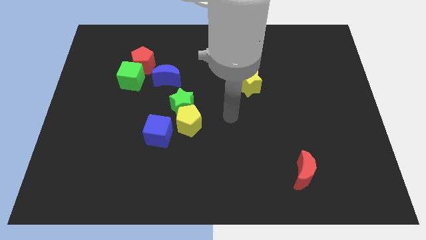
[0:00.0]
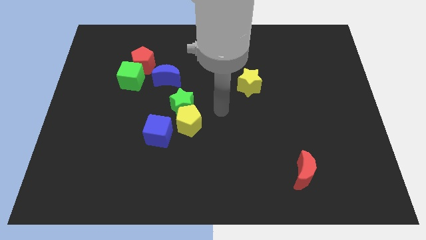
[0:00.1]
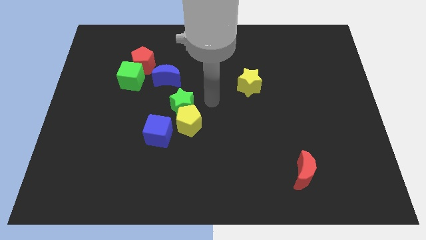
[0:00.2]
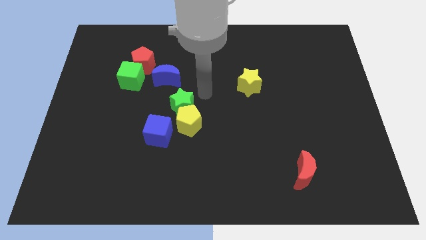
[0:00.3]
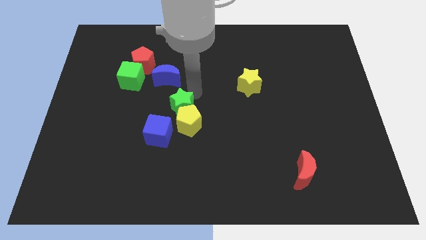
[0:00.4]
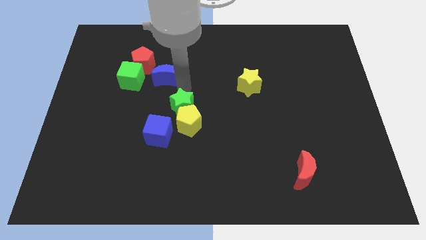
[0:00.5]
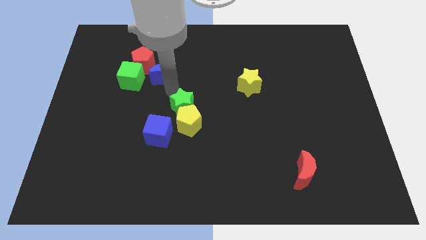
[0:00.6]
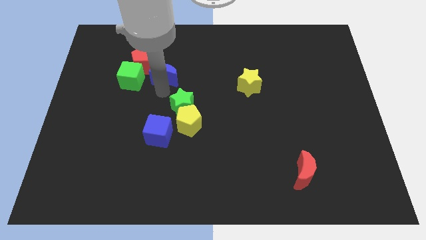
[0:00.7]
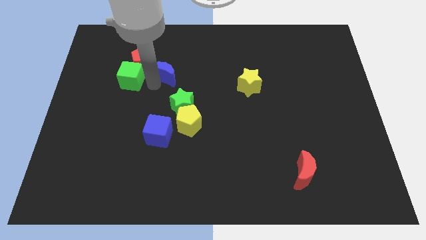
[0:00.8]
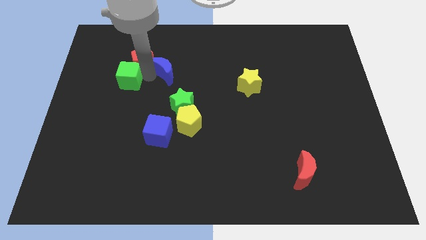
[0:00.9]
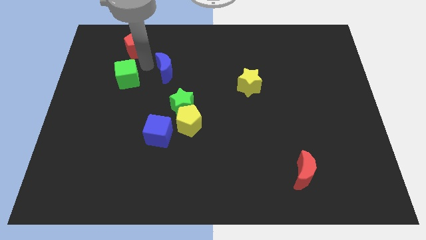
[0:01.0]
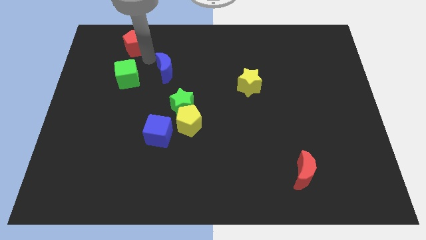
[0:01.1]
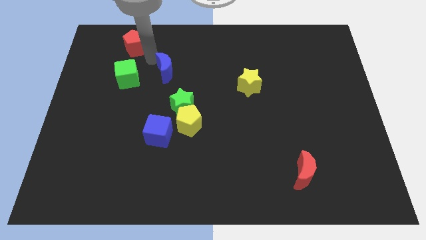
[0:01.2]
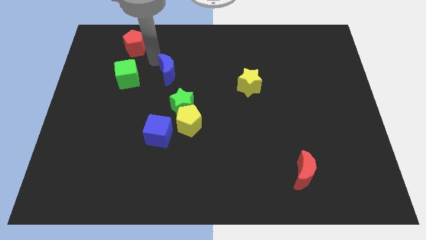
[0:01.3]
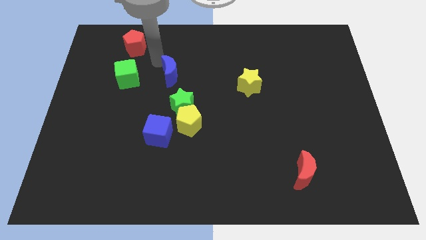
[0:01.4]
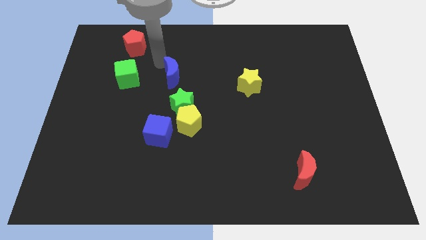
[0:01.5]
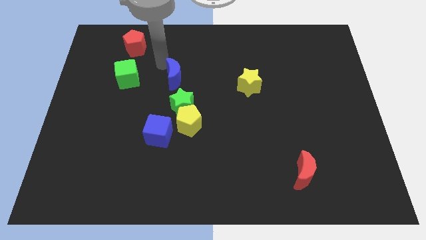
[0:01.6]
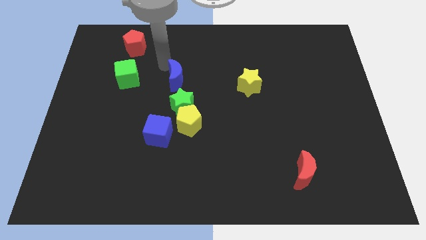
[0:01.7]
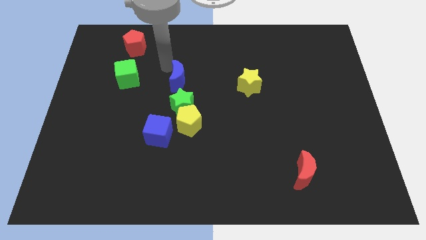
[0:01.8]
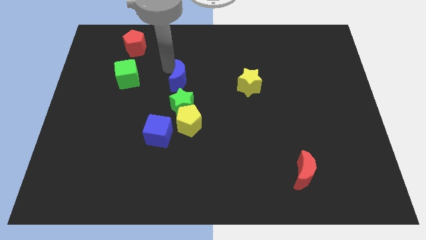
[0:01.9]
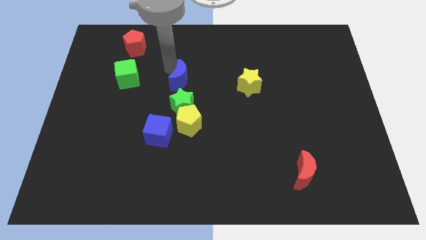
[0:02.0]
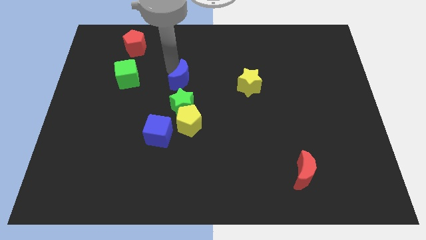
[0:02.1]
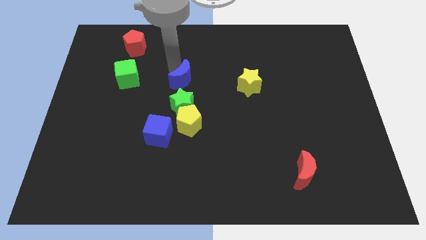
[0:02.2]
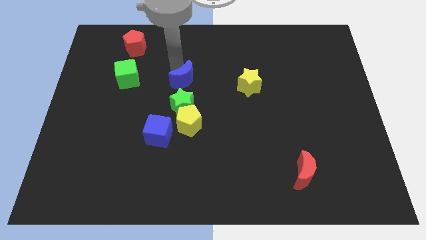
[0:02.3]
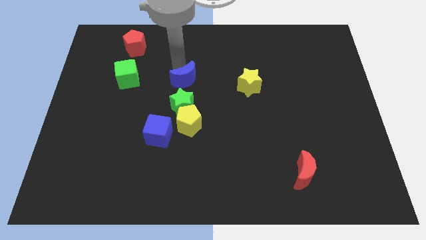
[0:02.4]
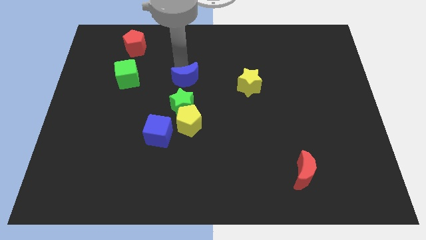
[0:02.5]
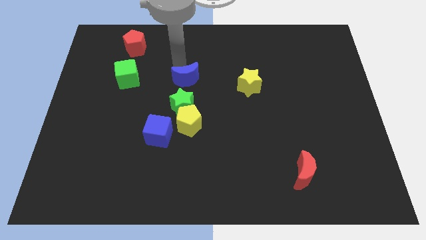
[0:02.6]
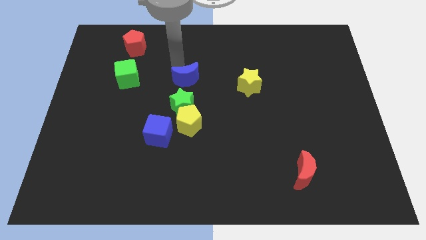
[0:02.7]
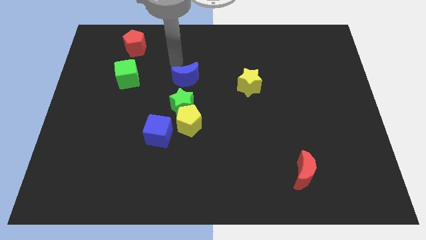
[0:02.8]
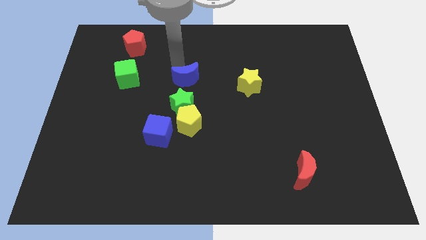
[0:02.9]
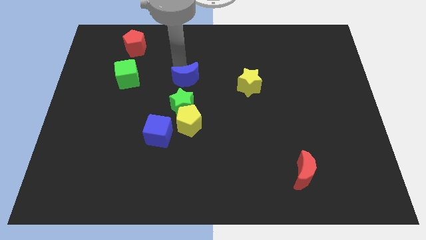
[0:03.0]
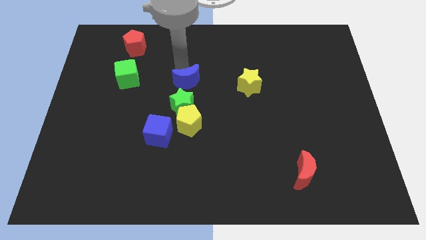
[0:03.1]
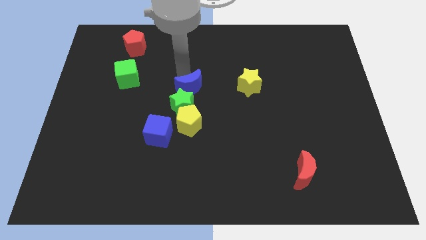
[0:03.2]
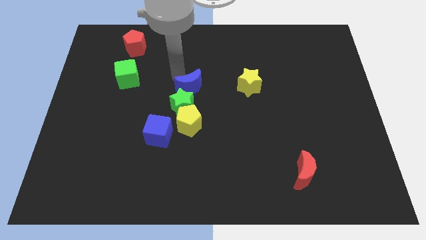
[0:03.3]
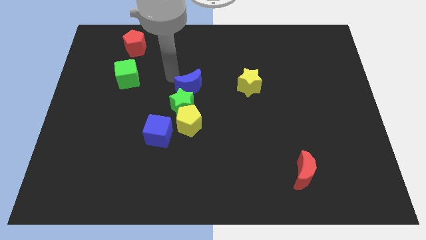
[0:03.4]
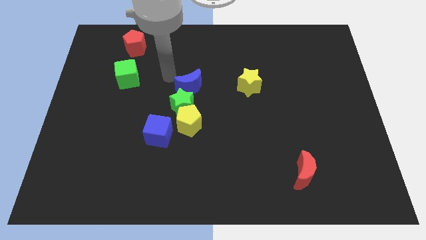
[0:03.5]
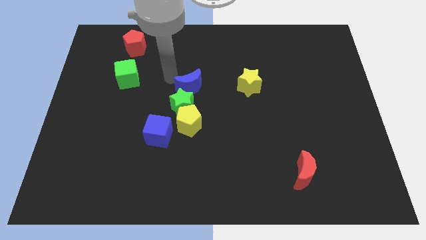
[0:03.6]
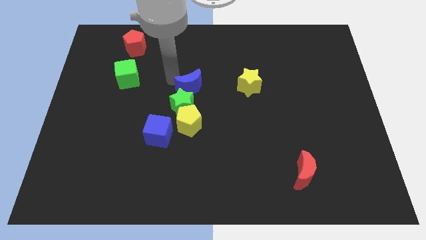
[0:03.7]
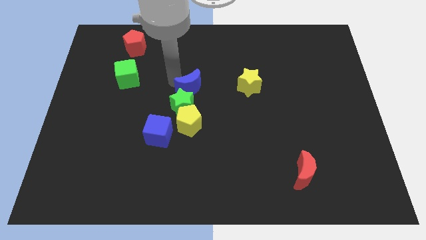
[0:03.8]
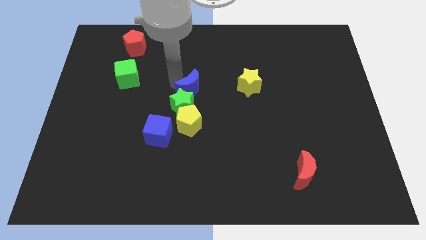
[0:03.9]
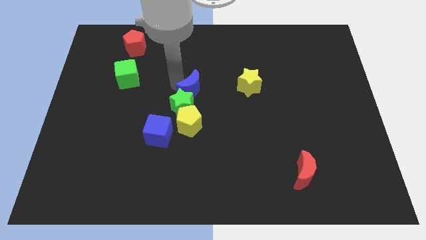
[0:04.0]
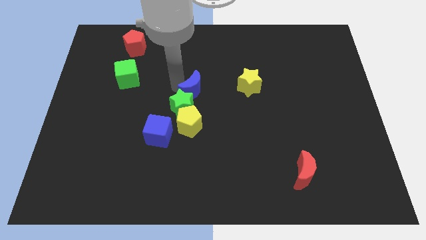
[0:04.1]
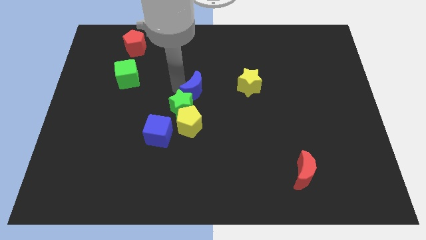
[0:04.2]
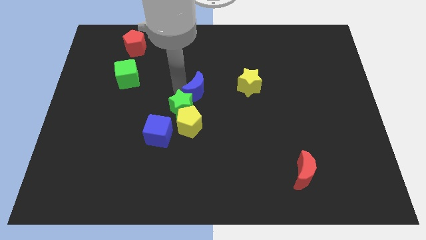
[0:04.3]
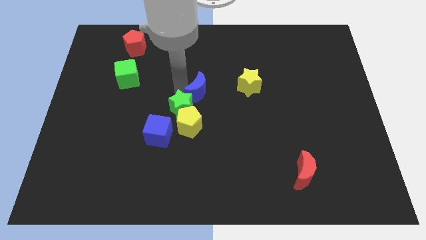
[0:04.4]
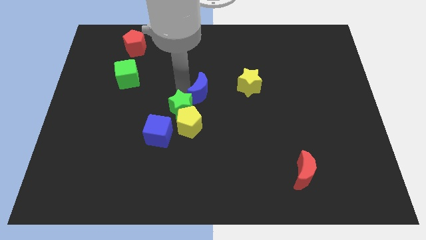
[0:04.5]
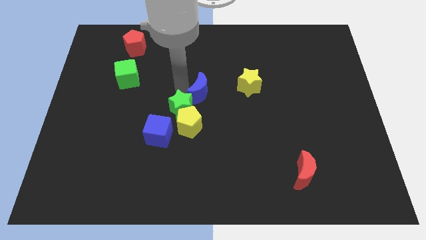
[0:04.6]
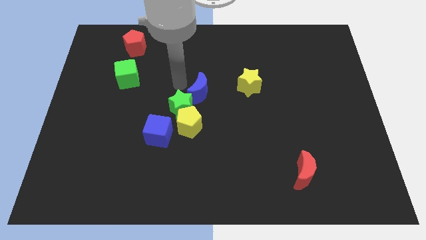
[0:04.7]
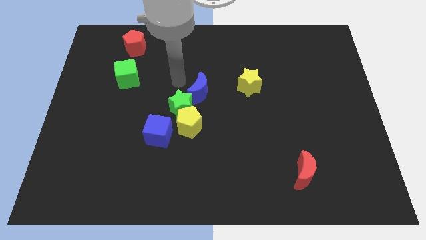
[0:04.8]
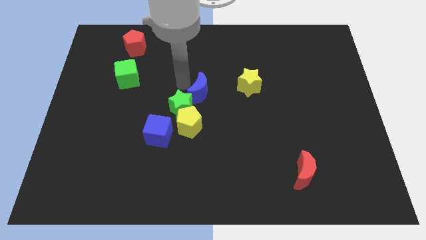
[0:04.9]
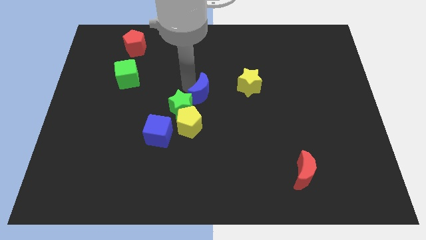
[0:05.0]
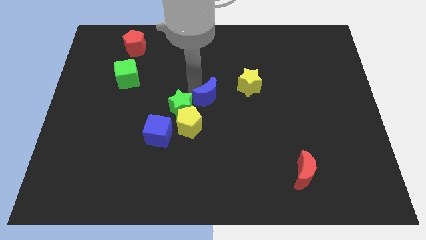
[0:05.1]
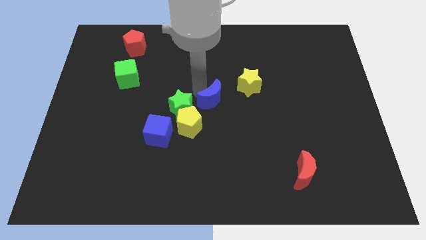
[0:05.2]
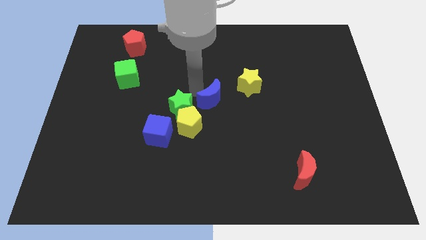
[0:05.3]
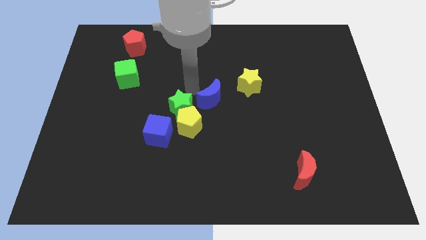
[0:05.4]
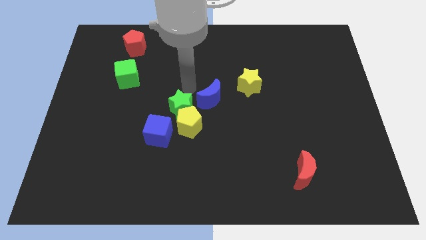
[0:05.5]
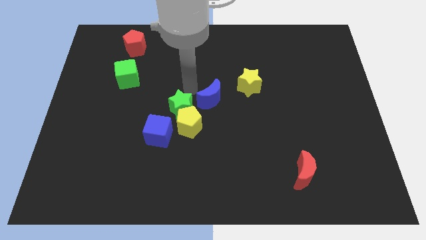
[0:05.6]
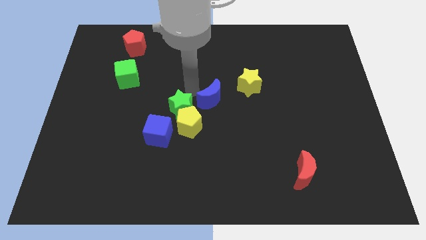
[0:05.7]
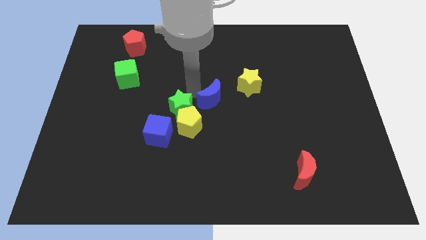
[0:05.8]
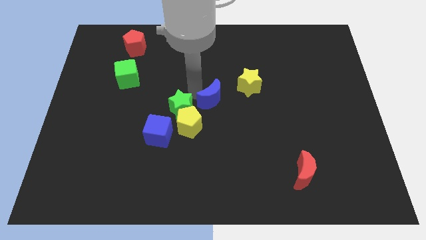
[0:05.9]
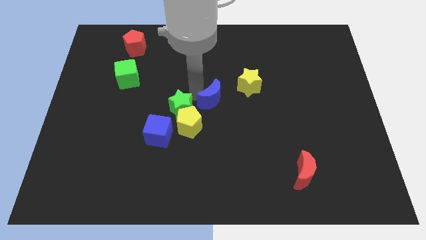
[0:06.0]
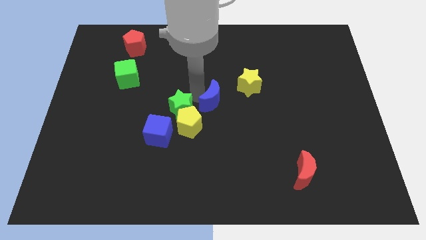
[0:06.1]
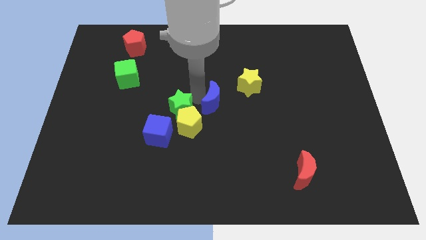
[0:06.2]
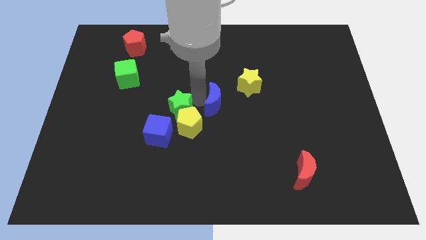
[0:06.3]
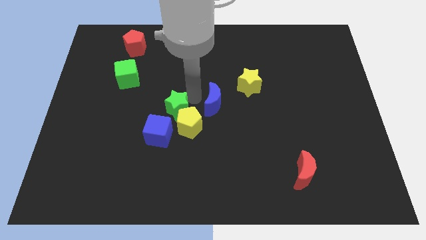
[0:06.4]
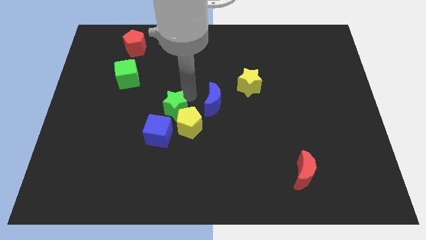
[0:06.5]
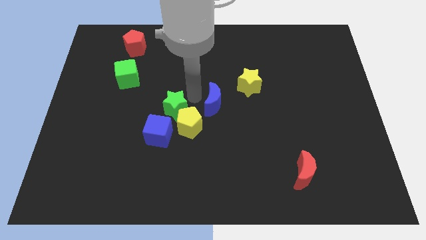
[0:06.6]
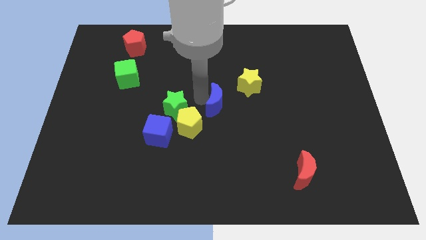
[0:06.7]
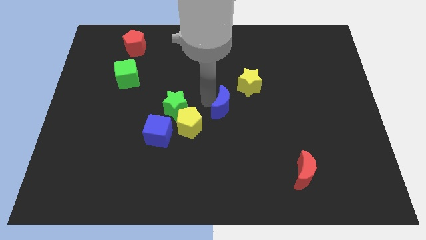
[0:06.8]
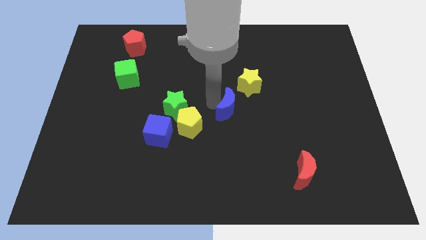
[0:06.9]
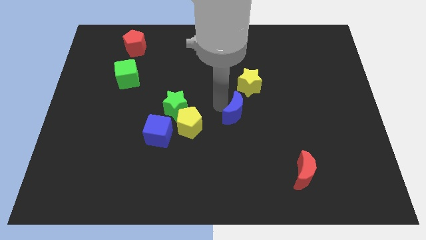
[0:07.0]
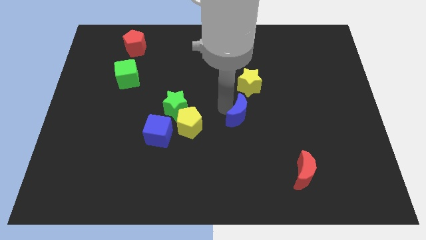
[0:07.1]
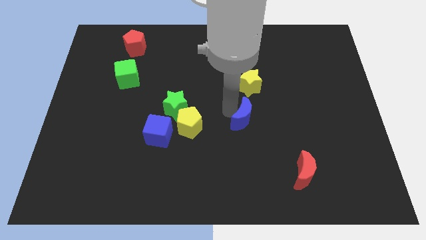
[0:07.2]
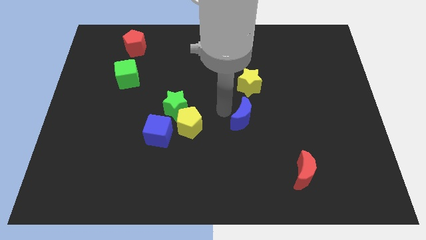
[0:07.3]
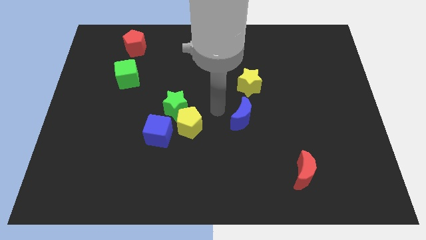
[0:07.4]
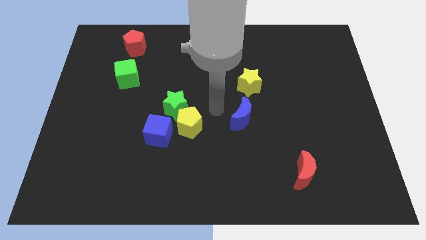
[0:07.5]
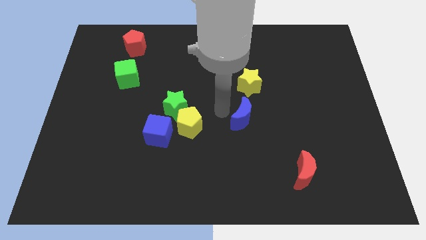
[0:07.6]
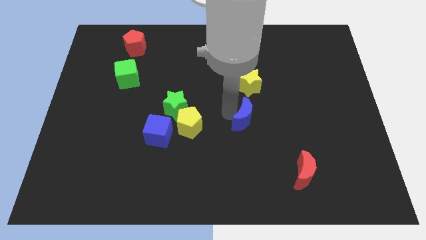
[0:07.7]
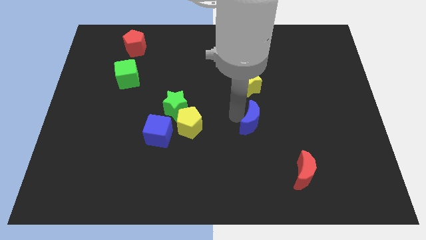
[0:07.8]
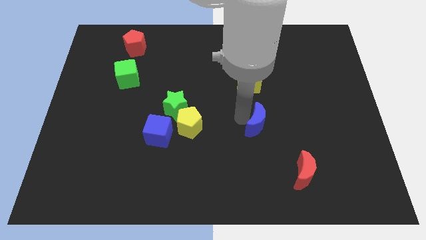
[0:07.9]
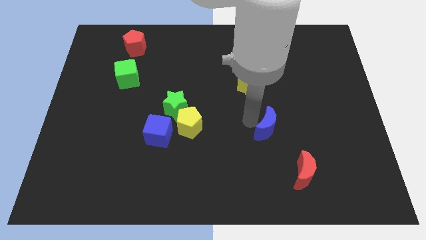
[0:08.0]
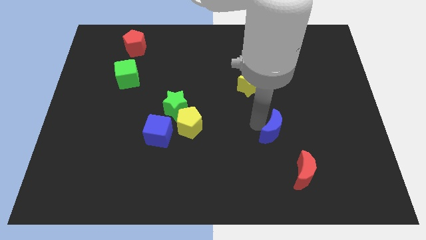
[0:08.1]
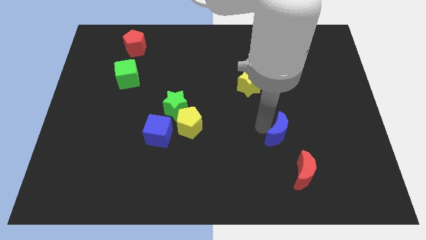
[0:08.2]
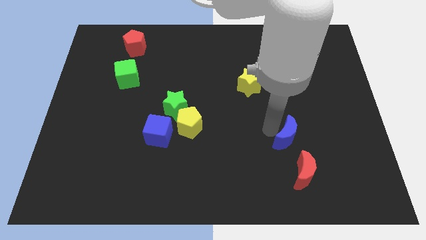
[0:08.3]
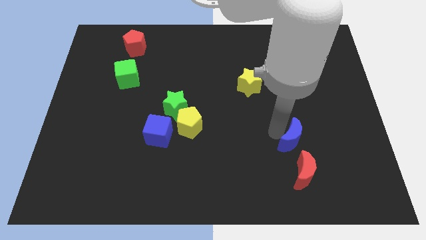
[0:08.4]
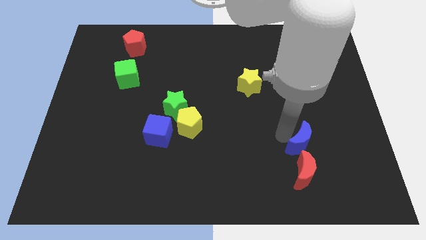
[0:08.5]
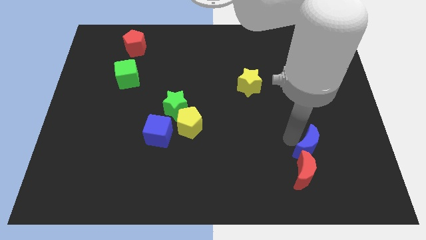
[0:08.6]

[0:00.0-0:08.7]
move the blue moon to the top right of the red moon
